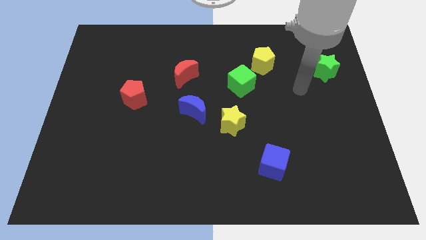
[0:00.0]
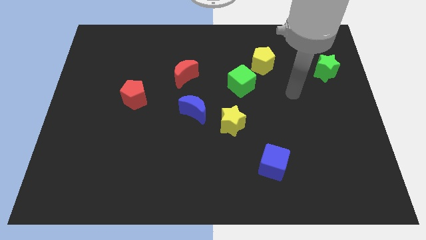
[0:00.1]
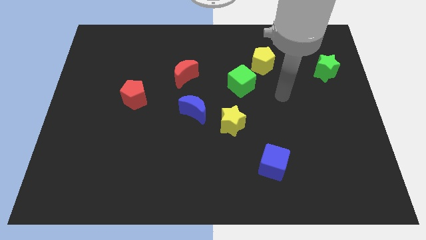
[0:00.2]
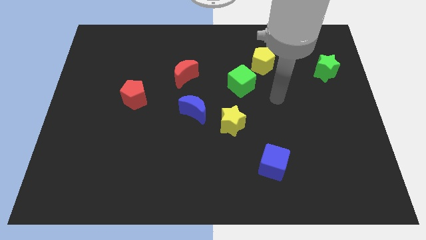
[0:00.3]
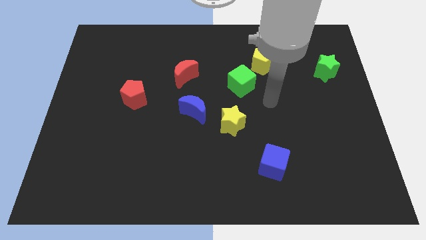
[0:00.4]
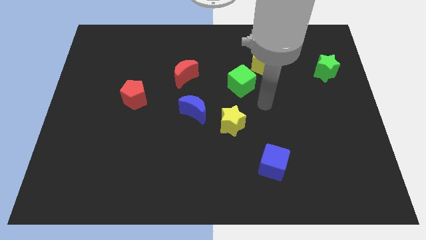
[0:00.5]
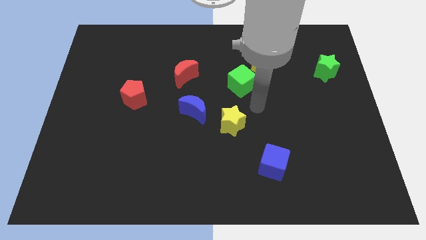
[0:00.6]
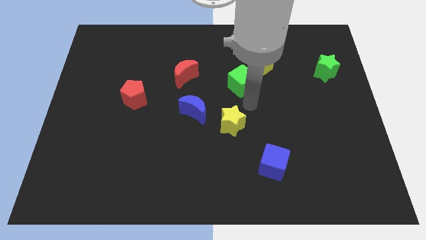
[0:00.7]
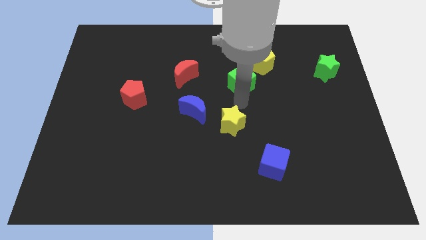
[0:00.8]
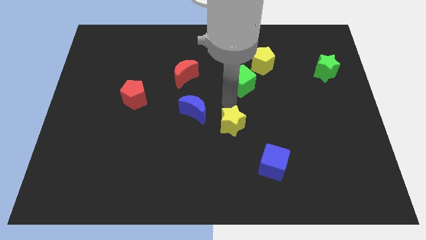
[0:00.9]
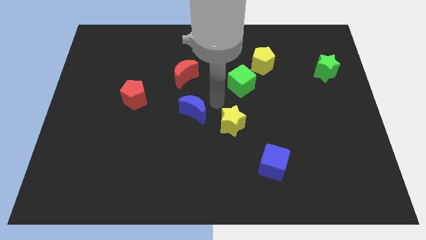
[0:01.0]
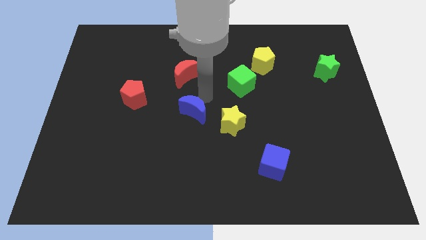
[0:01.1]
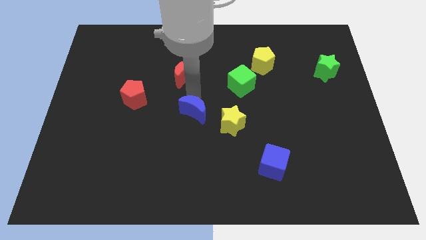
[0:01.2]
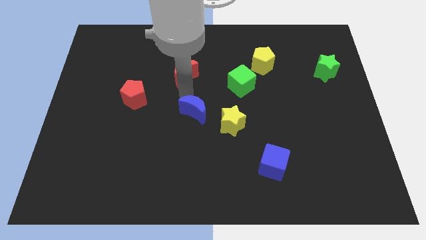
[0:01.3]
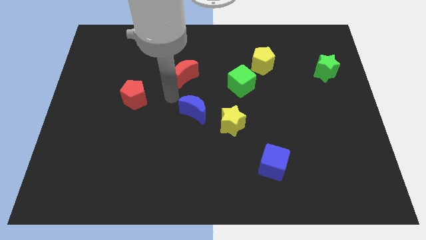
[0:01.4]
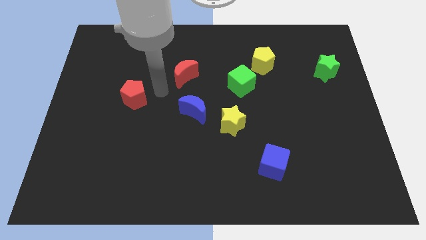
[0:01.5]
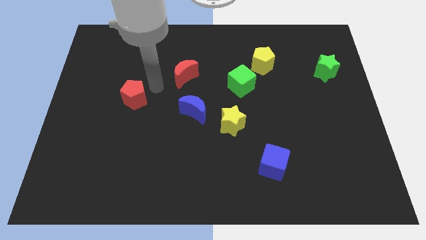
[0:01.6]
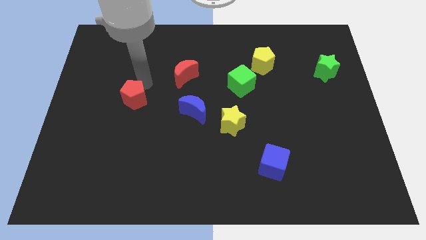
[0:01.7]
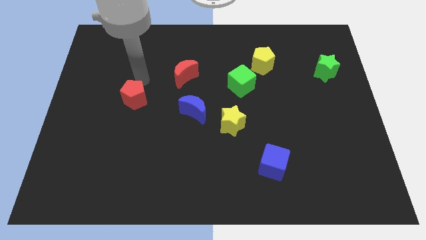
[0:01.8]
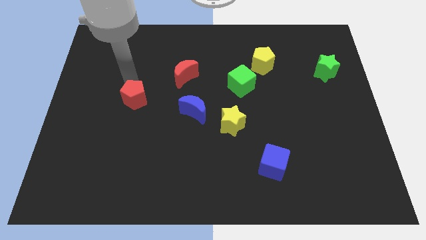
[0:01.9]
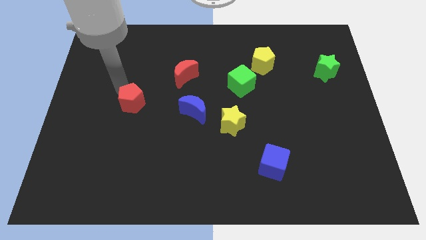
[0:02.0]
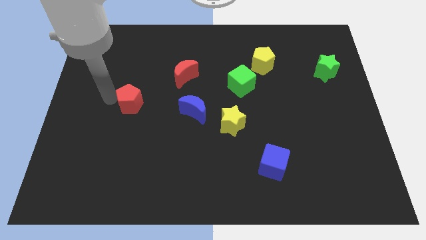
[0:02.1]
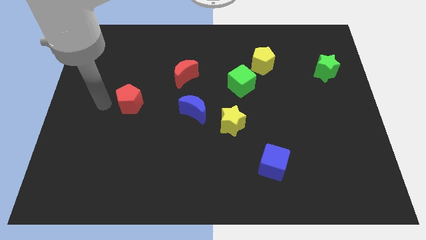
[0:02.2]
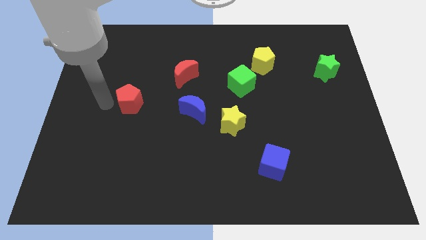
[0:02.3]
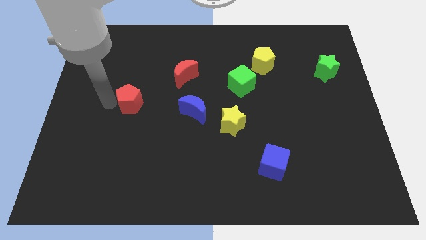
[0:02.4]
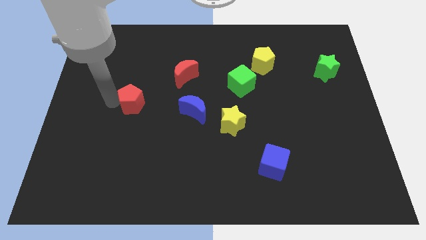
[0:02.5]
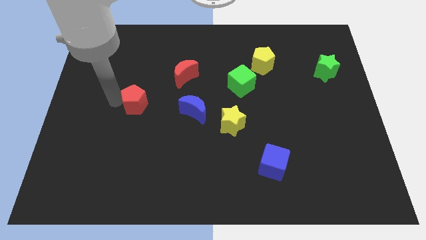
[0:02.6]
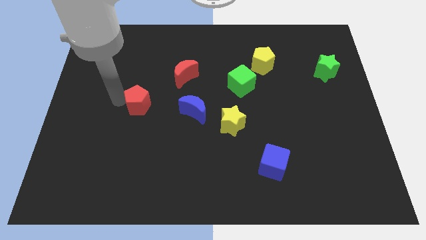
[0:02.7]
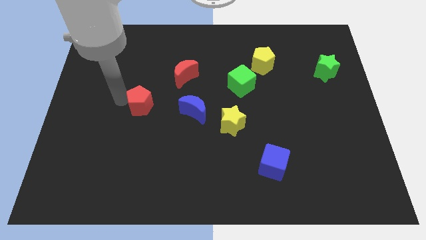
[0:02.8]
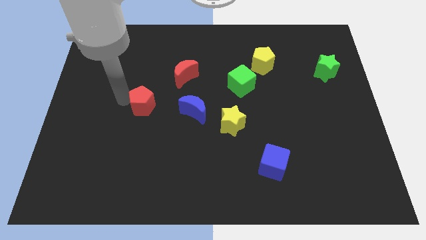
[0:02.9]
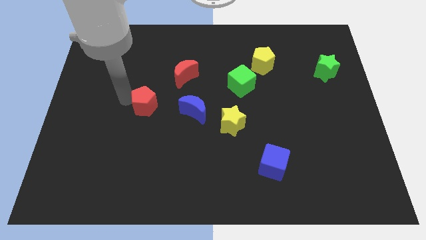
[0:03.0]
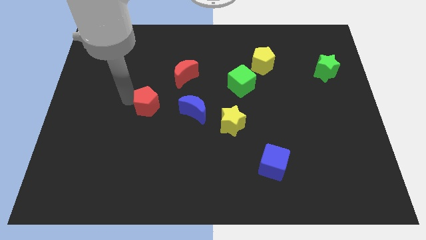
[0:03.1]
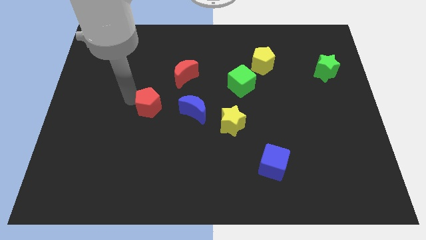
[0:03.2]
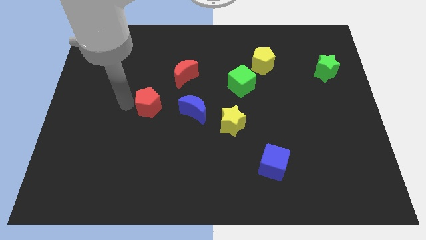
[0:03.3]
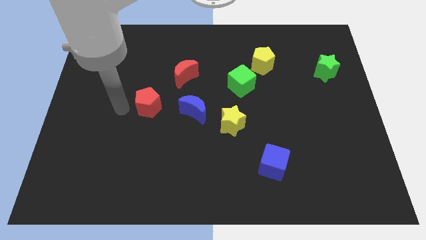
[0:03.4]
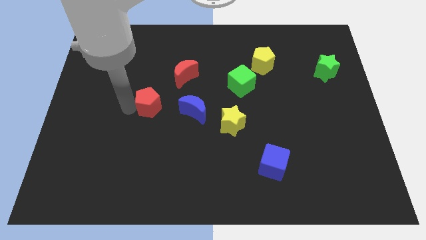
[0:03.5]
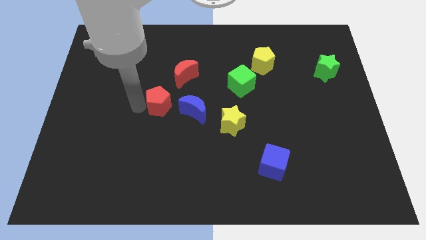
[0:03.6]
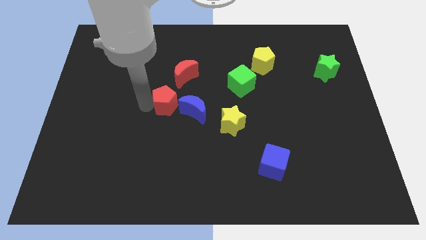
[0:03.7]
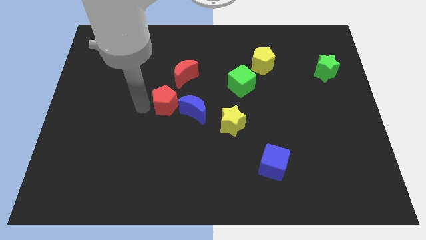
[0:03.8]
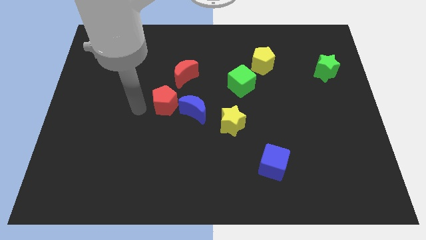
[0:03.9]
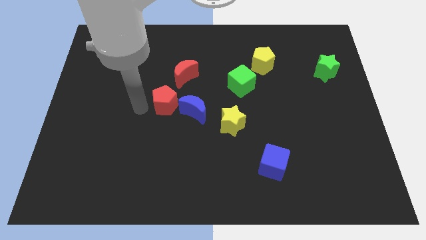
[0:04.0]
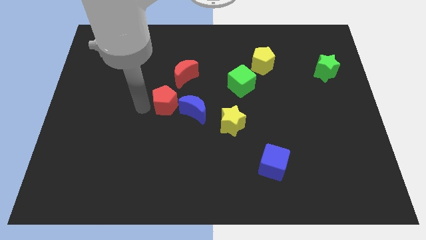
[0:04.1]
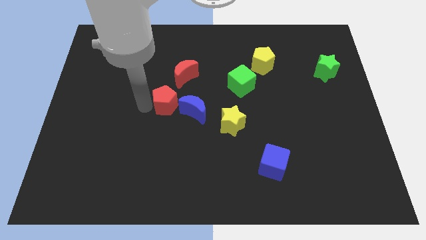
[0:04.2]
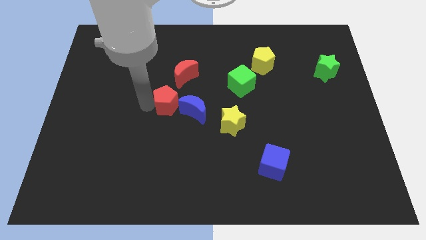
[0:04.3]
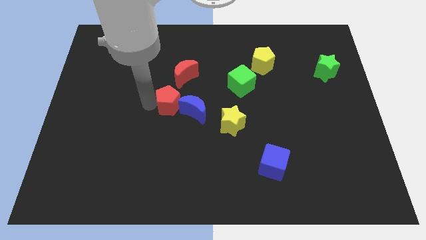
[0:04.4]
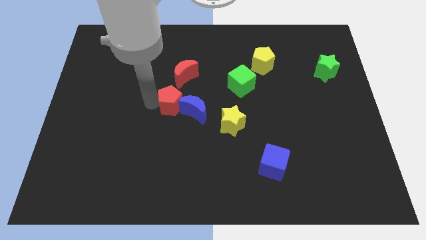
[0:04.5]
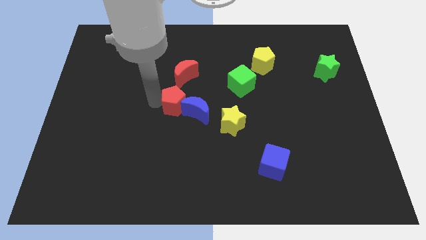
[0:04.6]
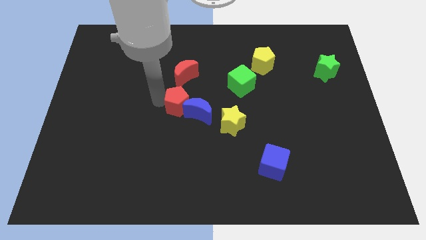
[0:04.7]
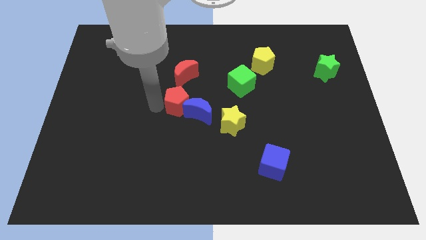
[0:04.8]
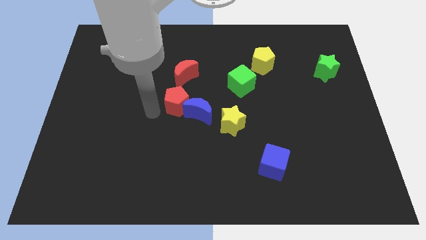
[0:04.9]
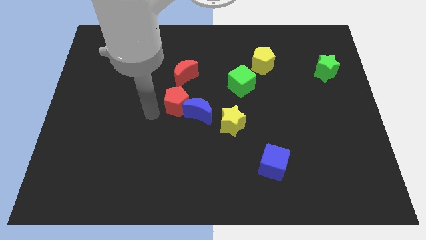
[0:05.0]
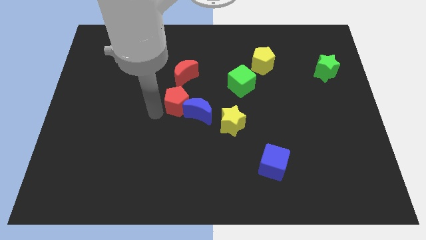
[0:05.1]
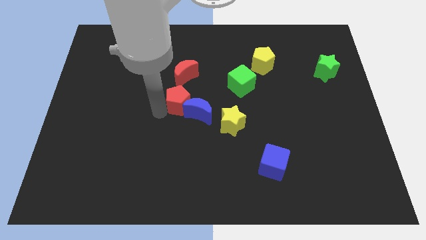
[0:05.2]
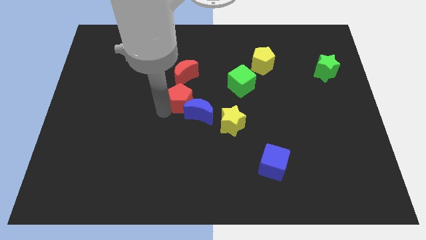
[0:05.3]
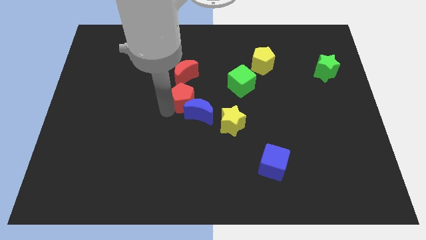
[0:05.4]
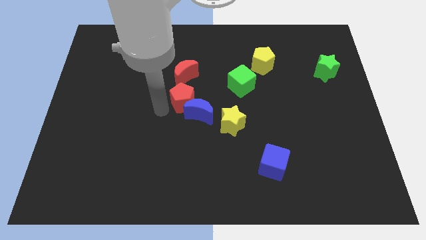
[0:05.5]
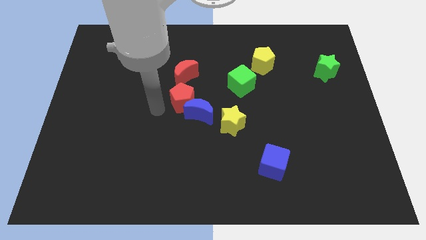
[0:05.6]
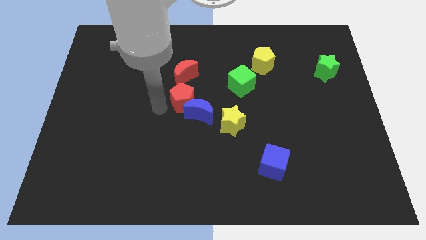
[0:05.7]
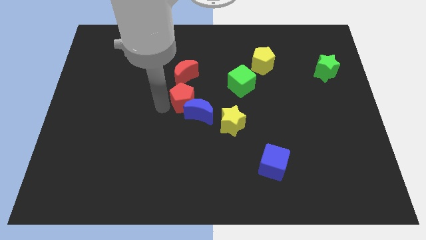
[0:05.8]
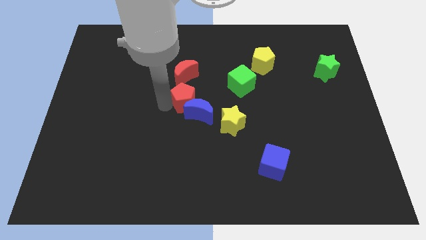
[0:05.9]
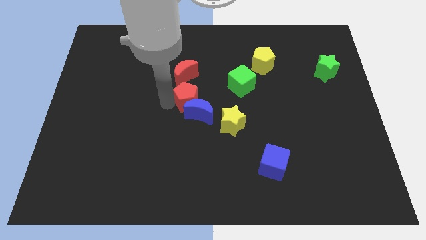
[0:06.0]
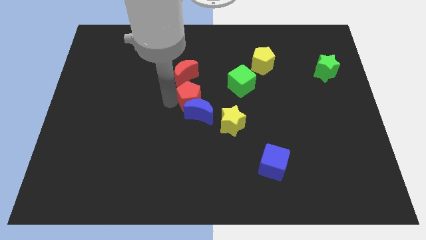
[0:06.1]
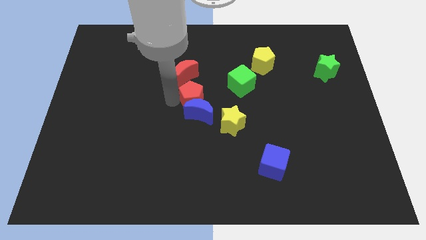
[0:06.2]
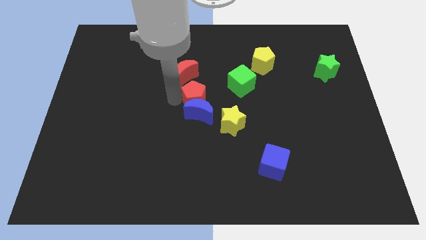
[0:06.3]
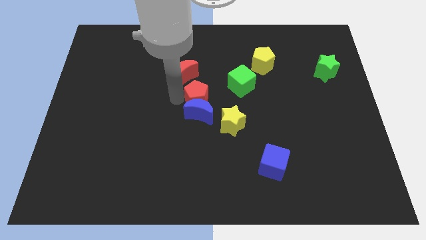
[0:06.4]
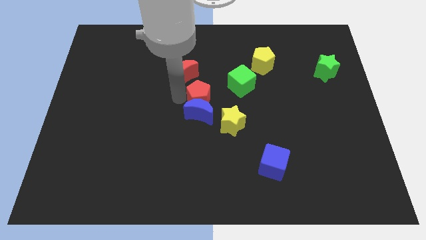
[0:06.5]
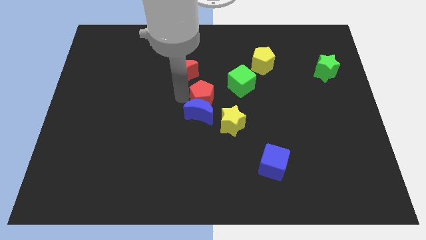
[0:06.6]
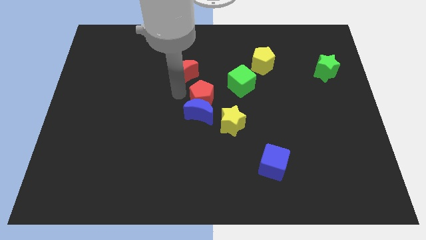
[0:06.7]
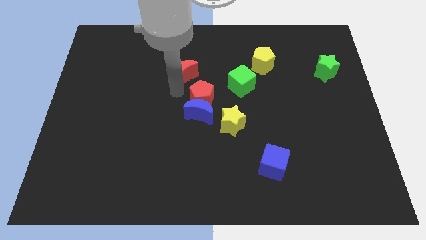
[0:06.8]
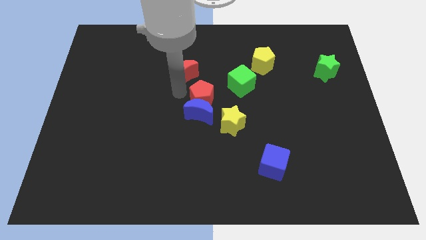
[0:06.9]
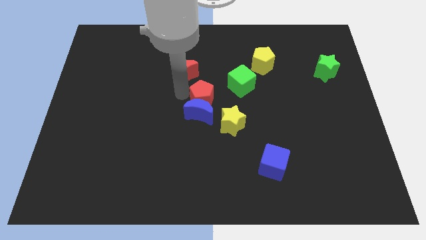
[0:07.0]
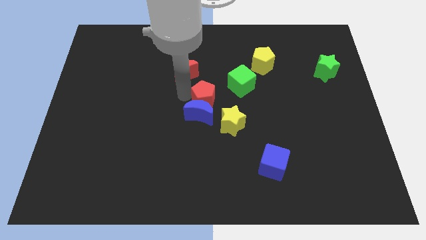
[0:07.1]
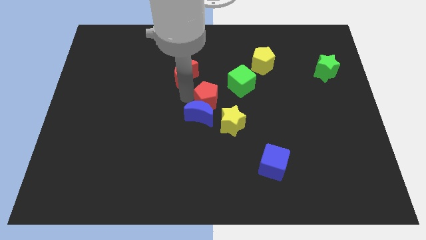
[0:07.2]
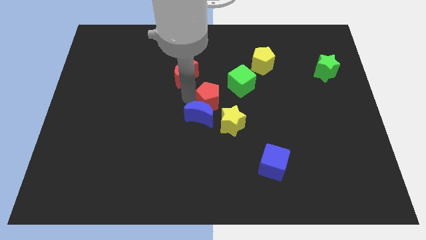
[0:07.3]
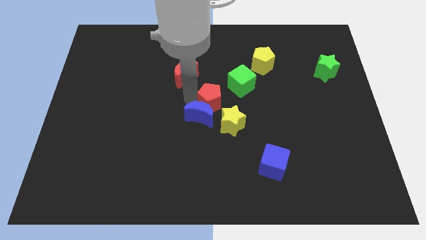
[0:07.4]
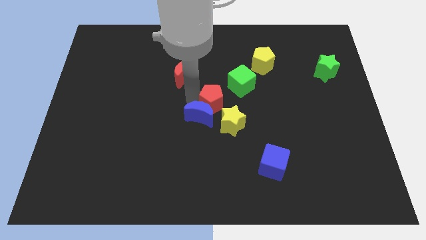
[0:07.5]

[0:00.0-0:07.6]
put the red pentagon right of the blue moon
